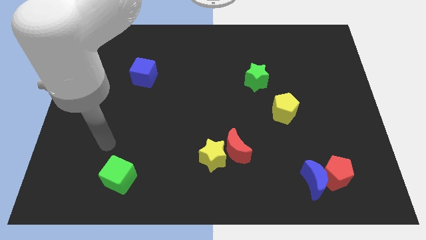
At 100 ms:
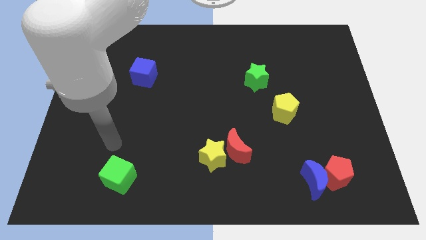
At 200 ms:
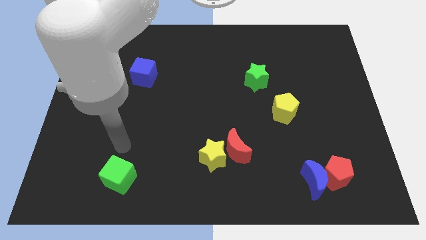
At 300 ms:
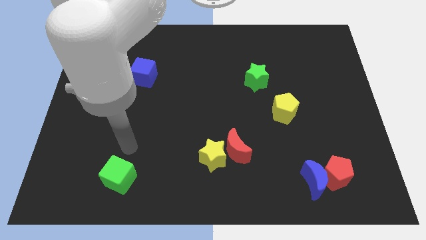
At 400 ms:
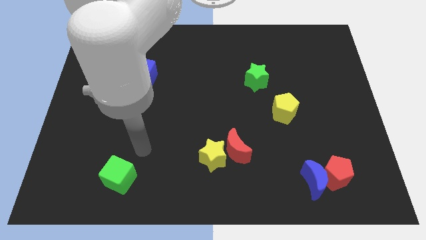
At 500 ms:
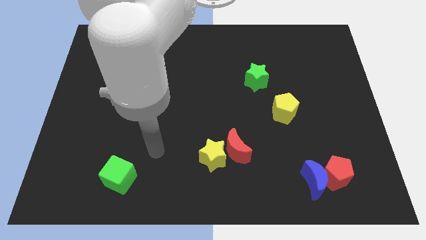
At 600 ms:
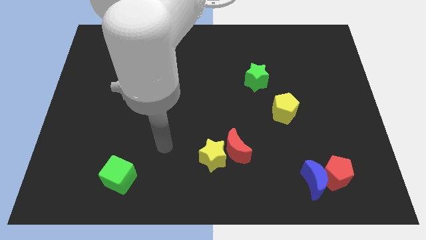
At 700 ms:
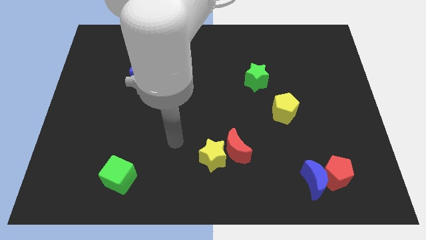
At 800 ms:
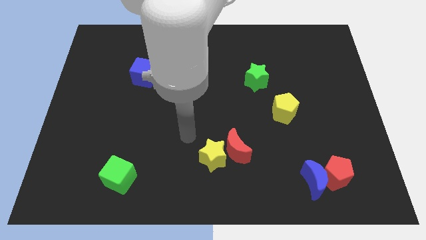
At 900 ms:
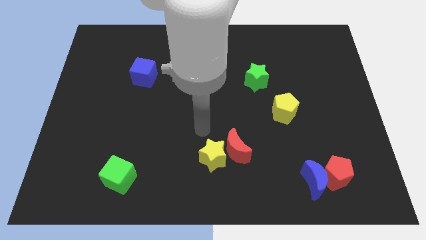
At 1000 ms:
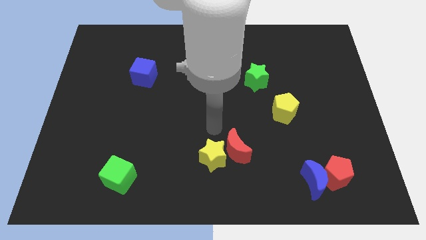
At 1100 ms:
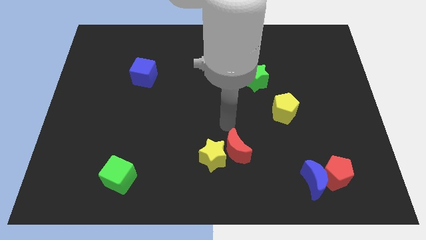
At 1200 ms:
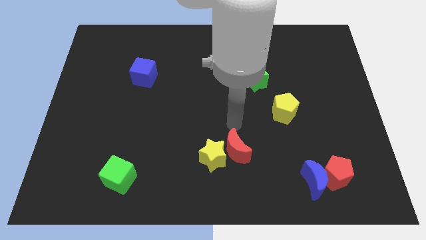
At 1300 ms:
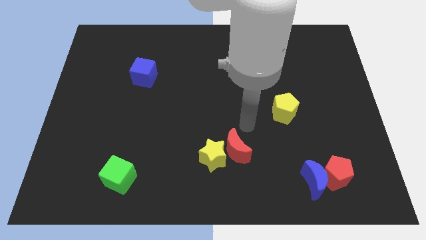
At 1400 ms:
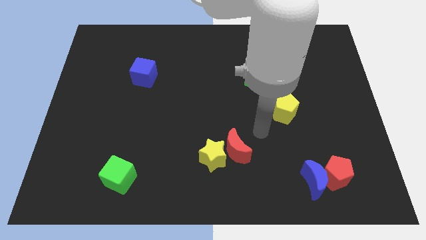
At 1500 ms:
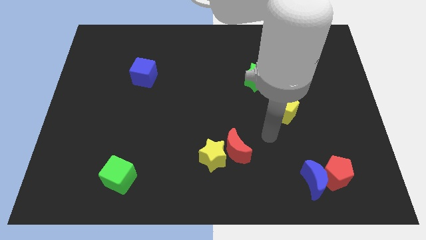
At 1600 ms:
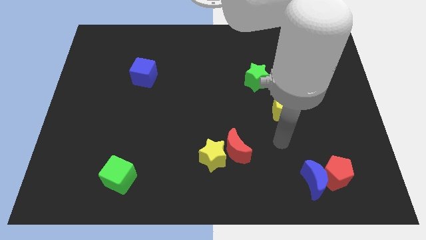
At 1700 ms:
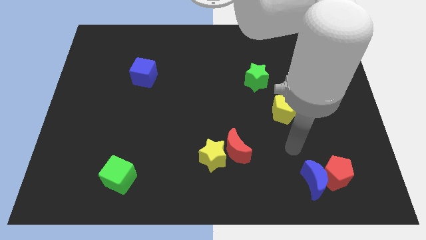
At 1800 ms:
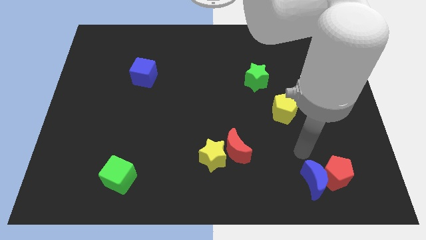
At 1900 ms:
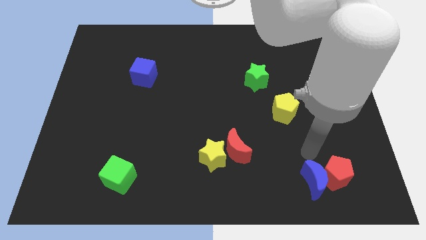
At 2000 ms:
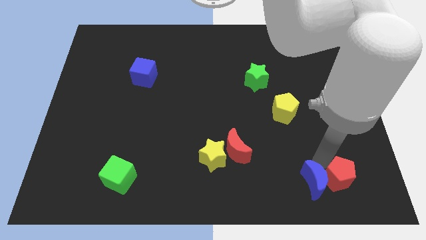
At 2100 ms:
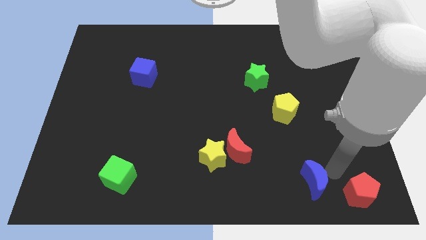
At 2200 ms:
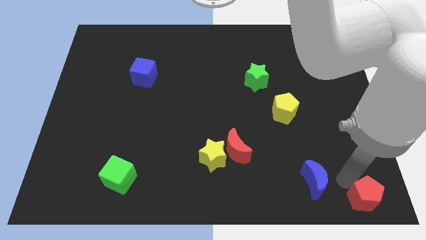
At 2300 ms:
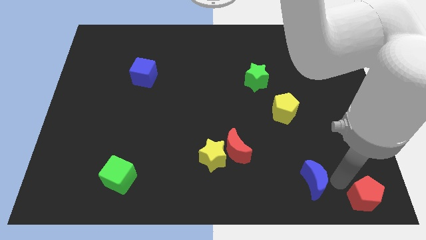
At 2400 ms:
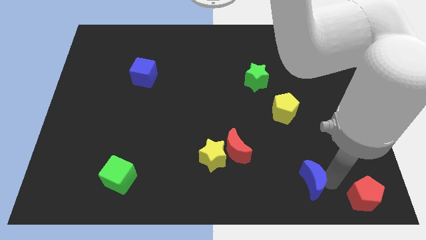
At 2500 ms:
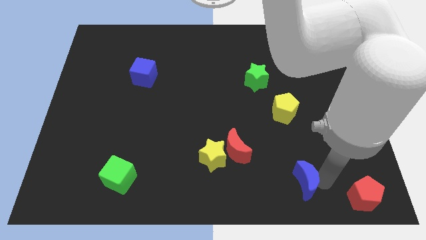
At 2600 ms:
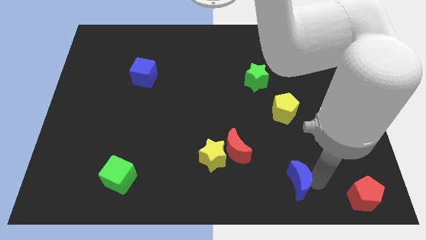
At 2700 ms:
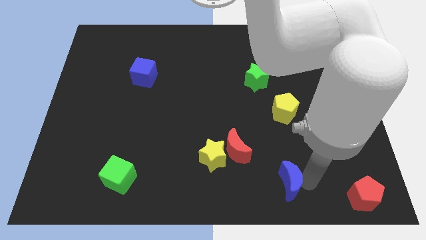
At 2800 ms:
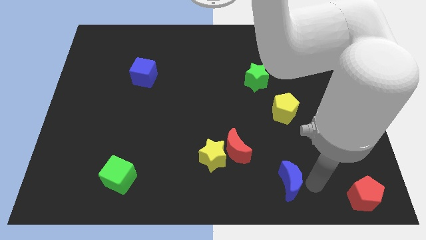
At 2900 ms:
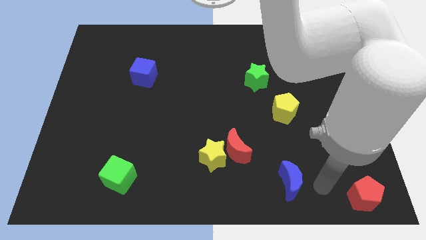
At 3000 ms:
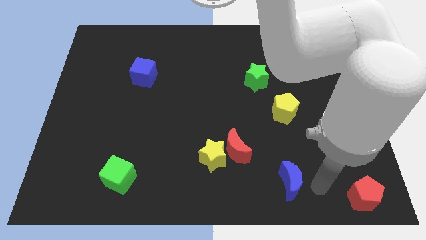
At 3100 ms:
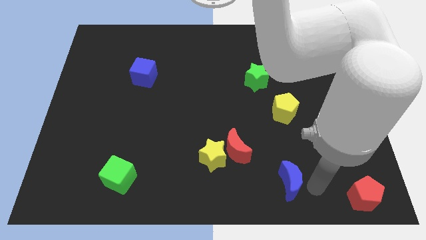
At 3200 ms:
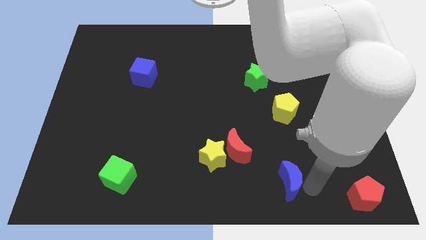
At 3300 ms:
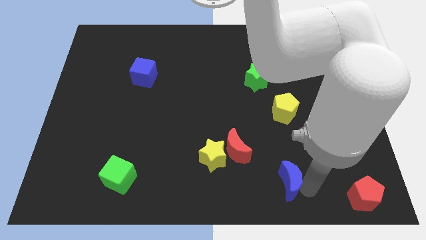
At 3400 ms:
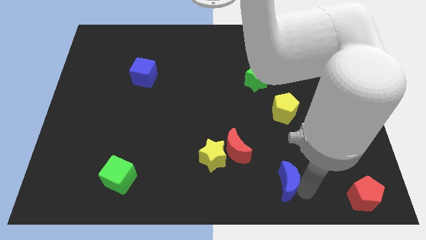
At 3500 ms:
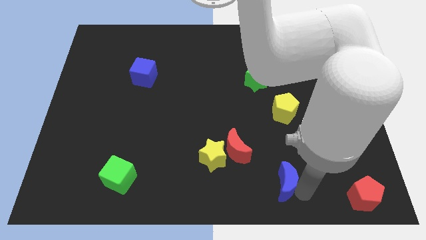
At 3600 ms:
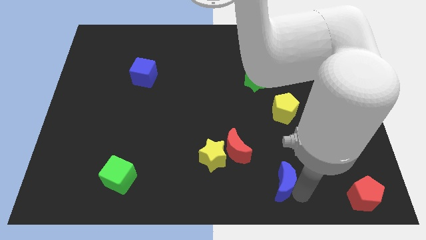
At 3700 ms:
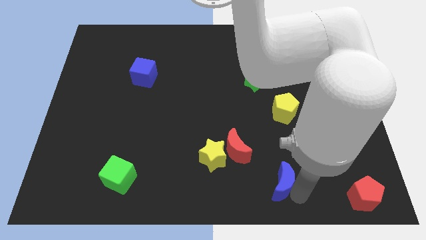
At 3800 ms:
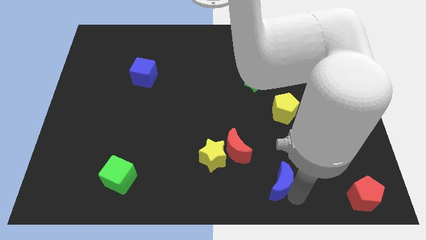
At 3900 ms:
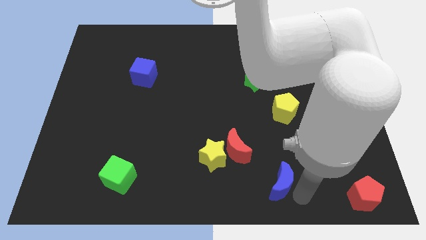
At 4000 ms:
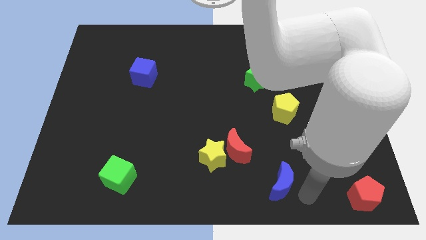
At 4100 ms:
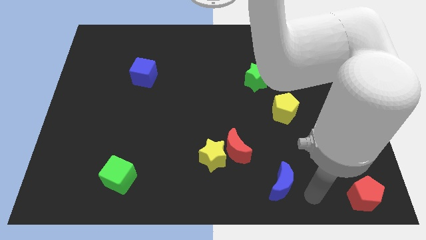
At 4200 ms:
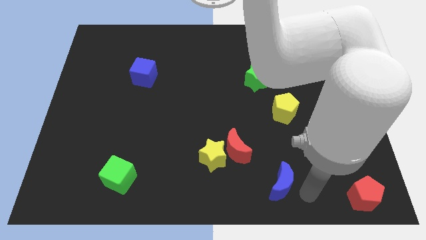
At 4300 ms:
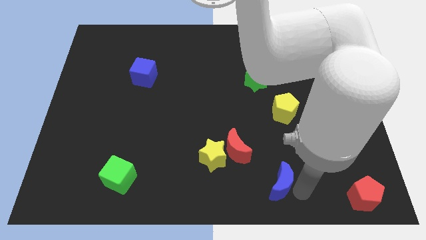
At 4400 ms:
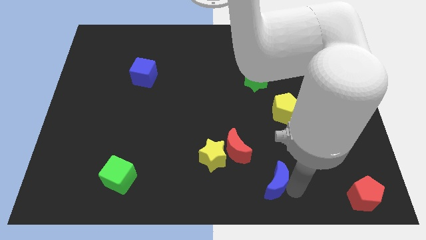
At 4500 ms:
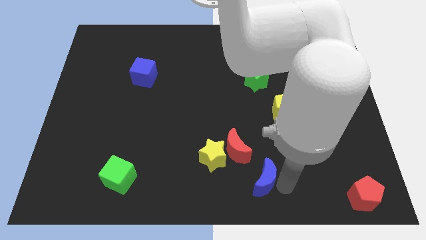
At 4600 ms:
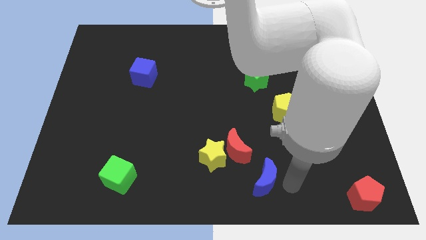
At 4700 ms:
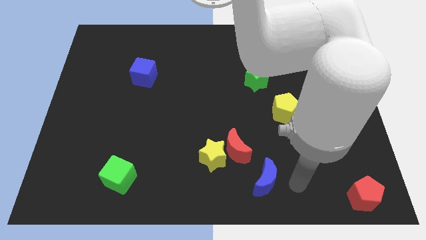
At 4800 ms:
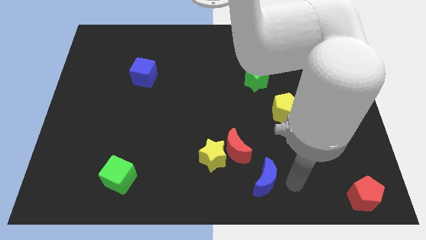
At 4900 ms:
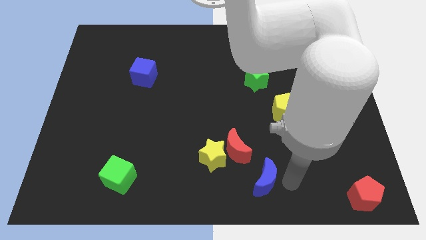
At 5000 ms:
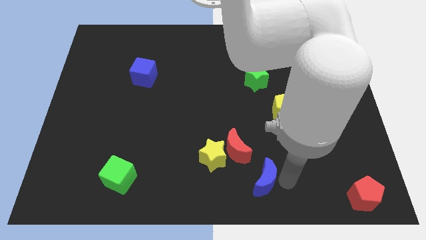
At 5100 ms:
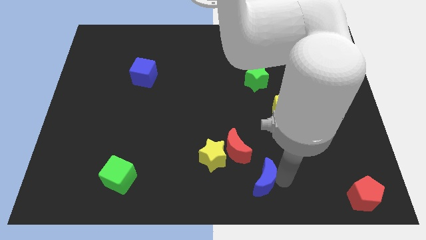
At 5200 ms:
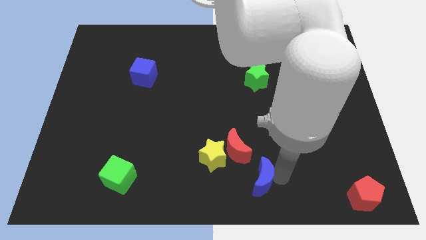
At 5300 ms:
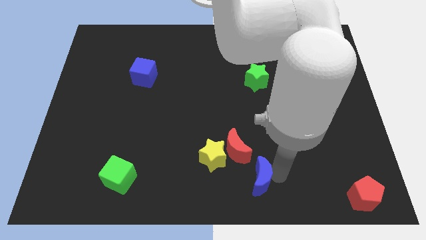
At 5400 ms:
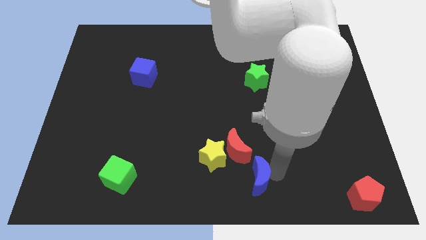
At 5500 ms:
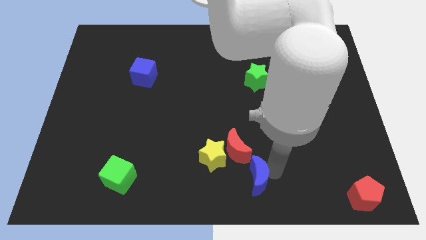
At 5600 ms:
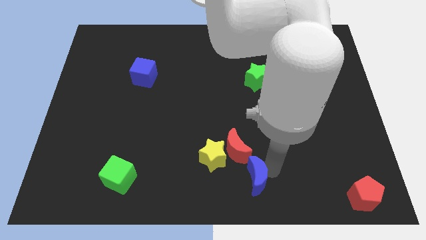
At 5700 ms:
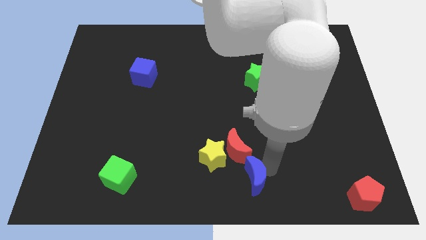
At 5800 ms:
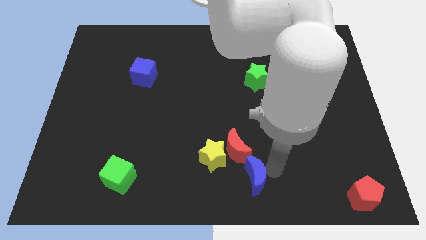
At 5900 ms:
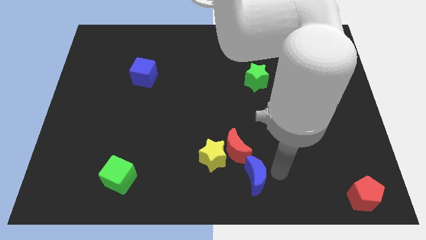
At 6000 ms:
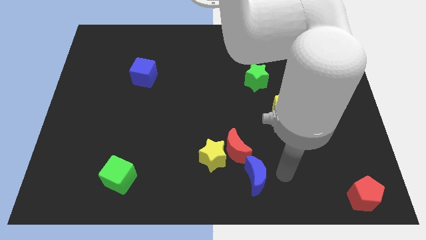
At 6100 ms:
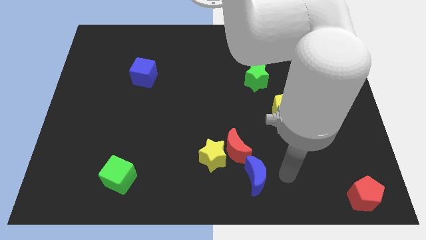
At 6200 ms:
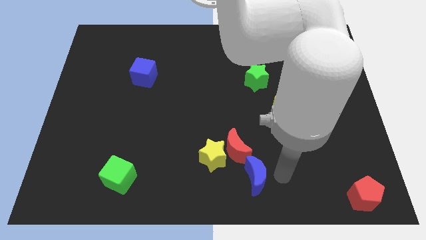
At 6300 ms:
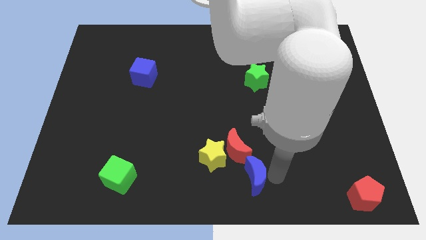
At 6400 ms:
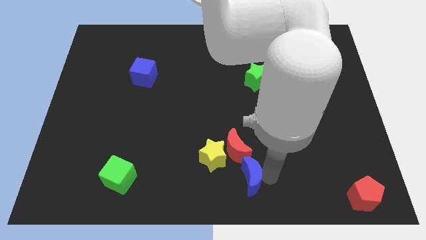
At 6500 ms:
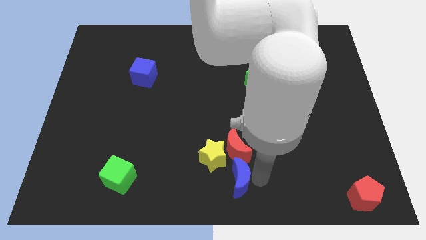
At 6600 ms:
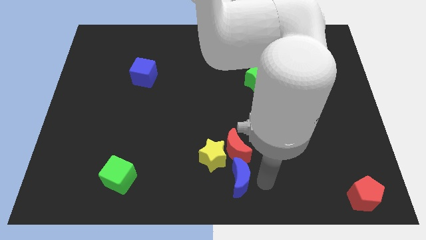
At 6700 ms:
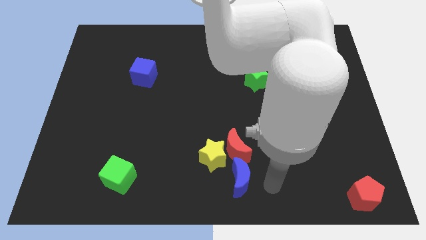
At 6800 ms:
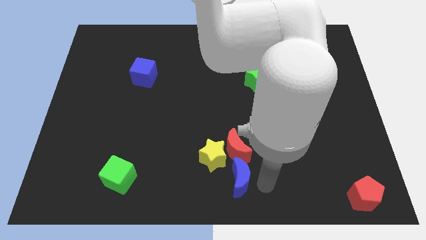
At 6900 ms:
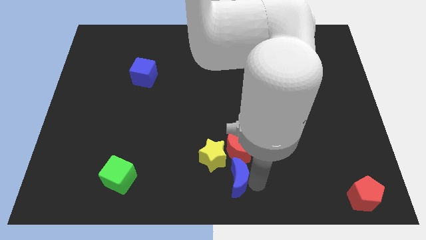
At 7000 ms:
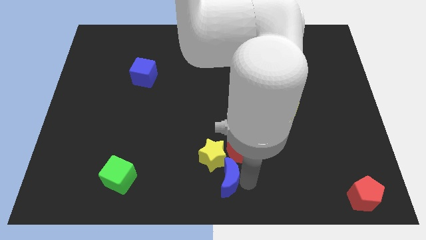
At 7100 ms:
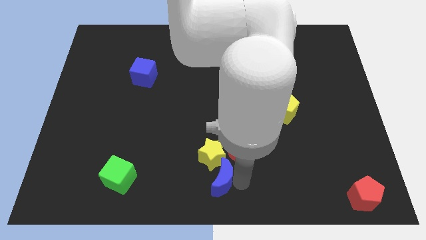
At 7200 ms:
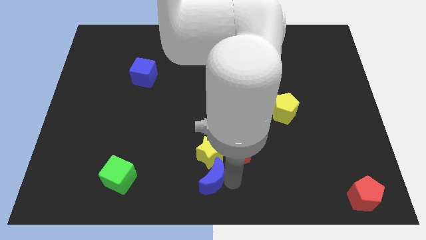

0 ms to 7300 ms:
move the blue moon left

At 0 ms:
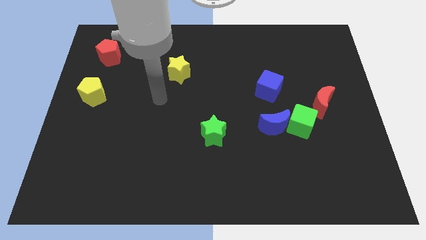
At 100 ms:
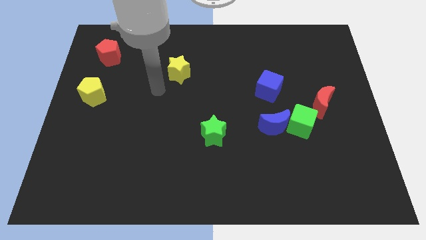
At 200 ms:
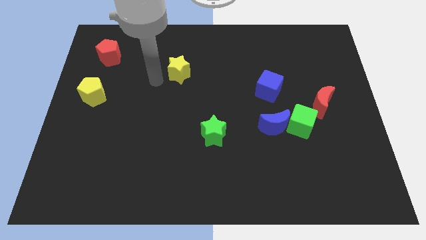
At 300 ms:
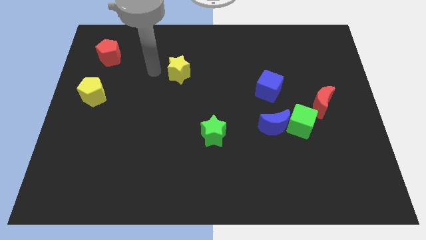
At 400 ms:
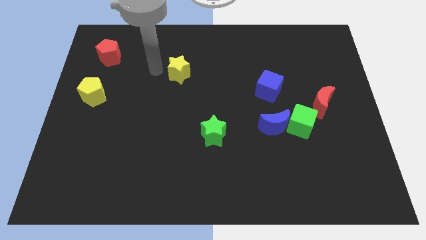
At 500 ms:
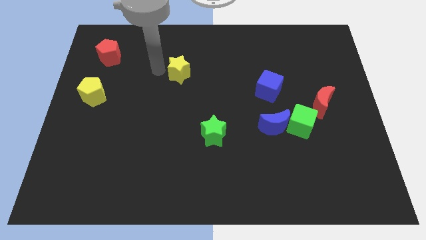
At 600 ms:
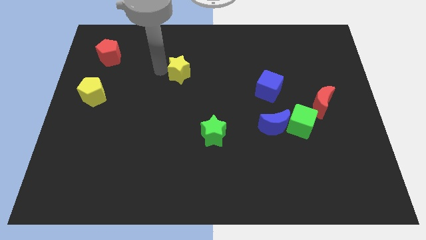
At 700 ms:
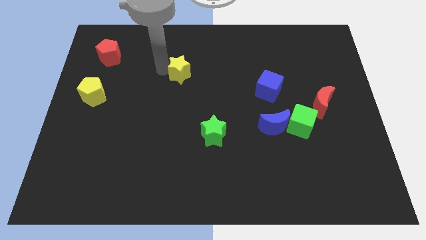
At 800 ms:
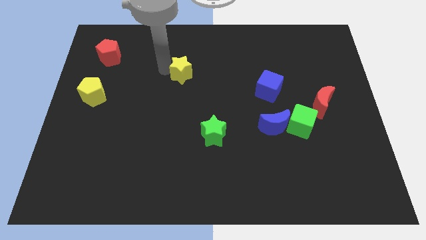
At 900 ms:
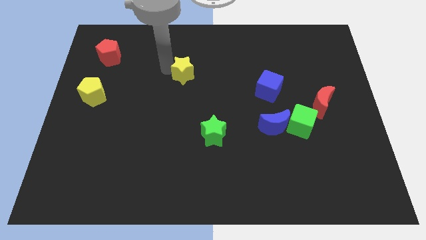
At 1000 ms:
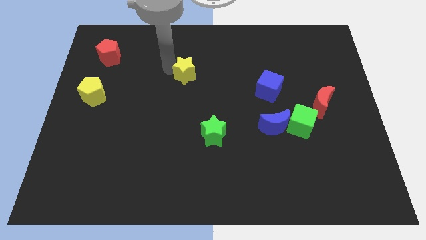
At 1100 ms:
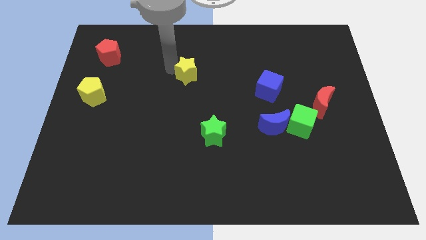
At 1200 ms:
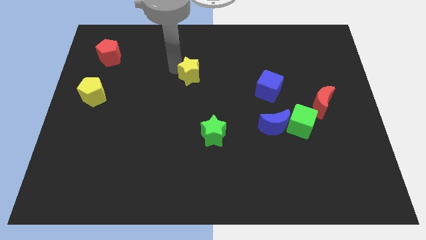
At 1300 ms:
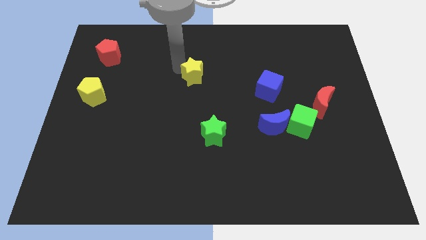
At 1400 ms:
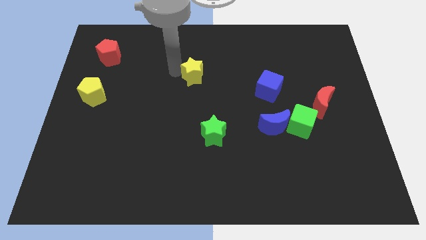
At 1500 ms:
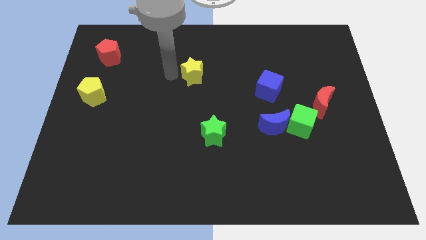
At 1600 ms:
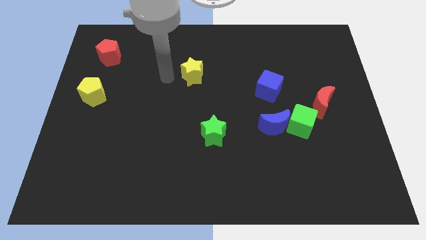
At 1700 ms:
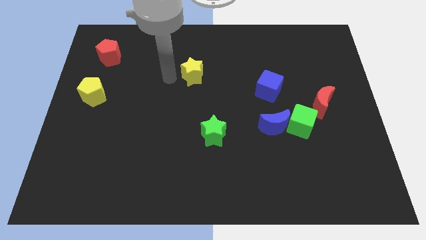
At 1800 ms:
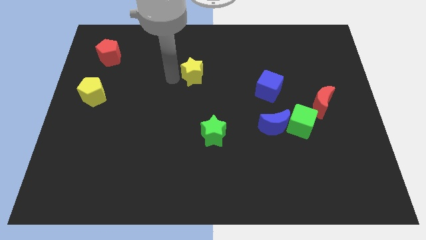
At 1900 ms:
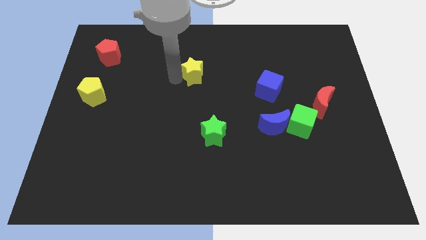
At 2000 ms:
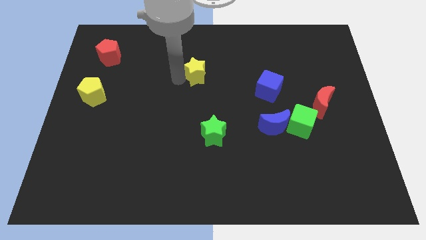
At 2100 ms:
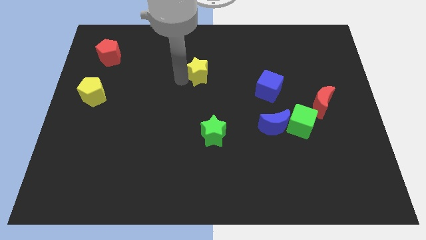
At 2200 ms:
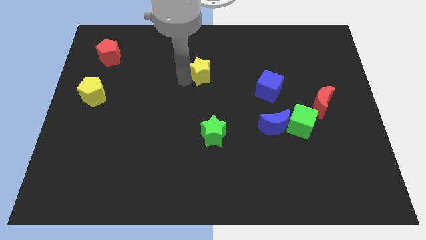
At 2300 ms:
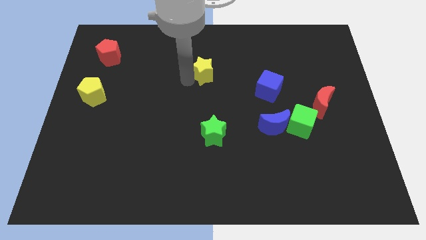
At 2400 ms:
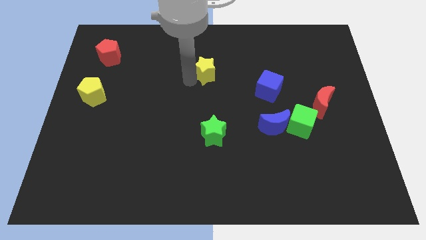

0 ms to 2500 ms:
slightly push the yellow star to the right
